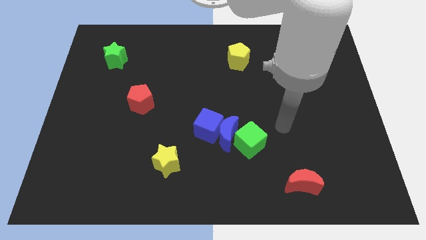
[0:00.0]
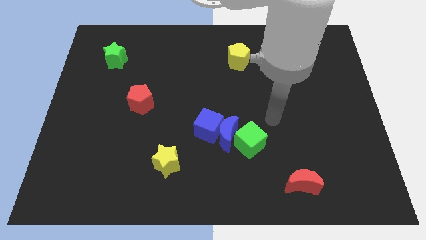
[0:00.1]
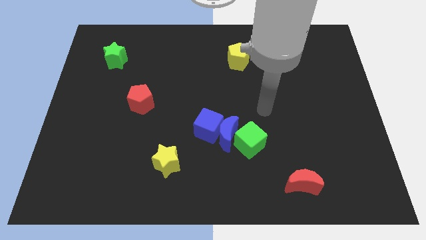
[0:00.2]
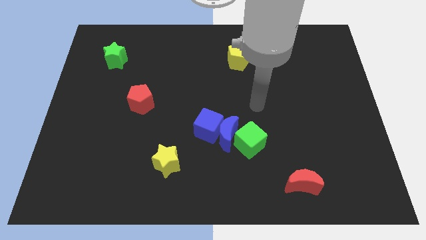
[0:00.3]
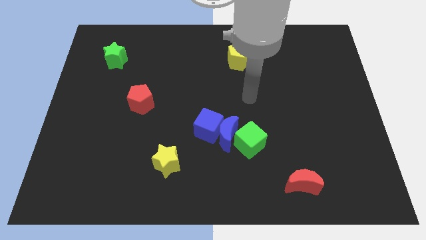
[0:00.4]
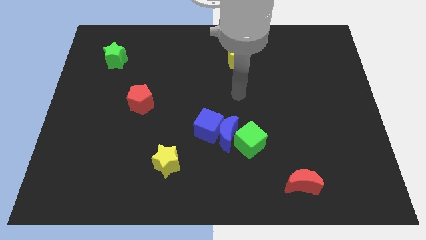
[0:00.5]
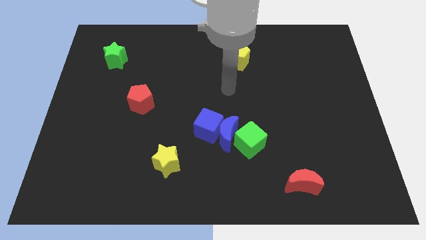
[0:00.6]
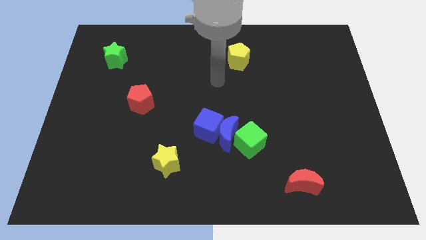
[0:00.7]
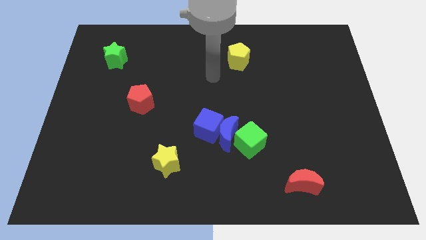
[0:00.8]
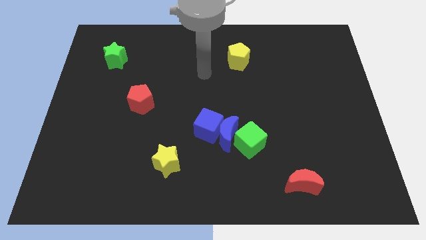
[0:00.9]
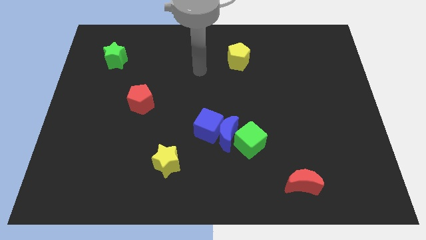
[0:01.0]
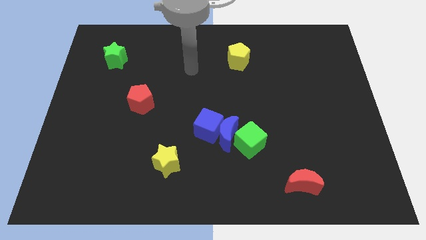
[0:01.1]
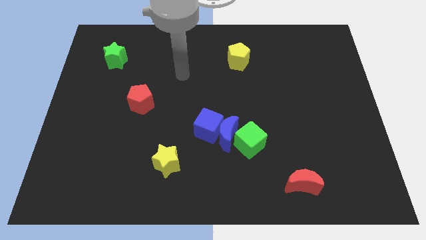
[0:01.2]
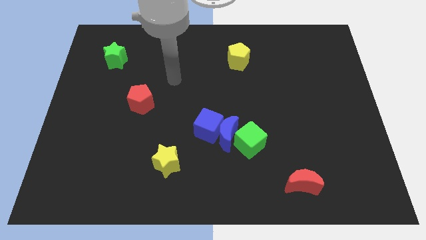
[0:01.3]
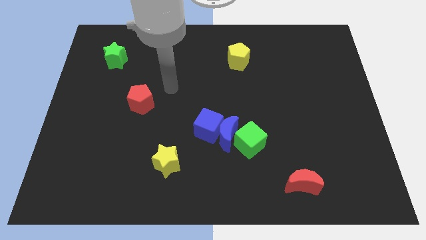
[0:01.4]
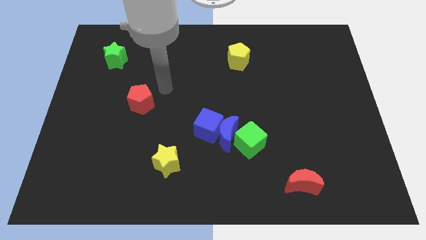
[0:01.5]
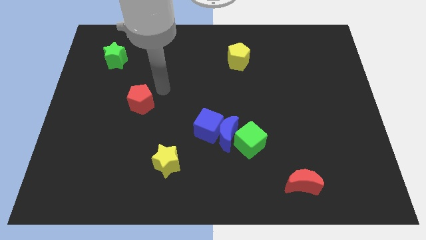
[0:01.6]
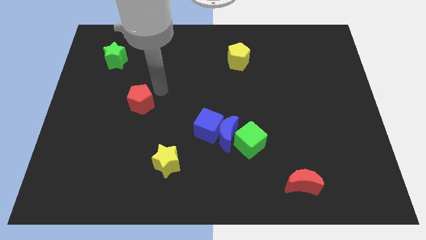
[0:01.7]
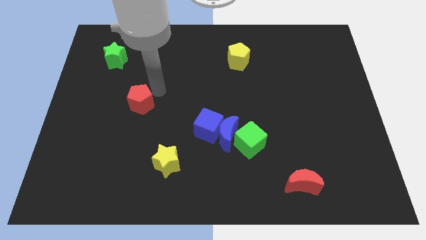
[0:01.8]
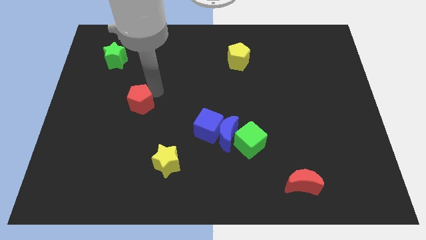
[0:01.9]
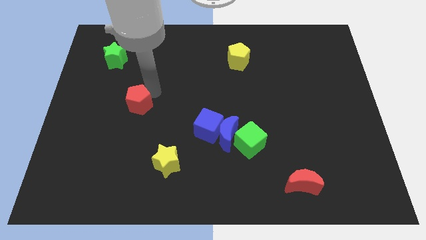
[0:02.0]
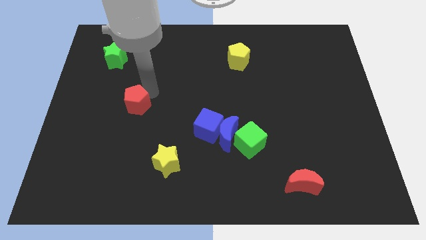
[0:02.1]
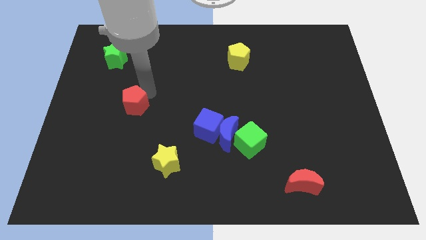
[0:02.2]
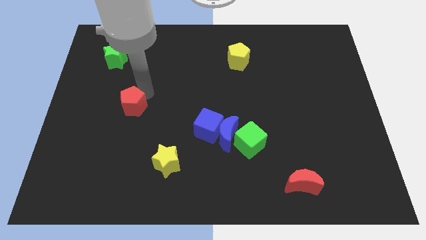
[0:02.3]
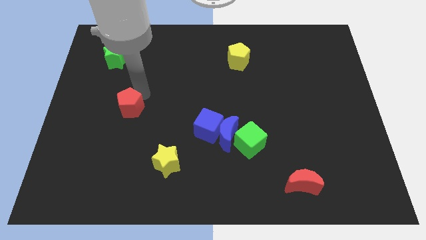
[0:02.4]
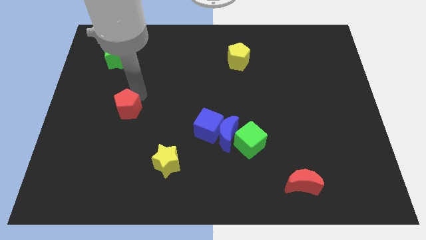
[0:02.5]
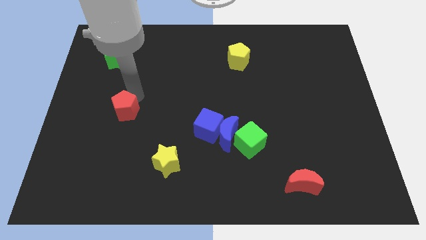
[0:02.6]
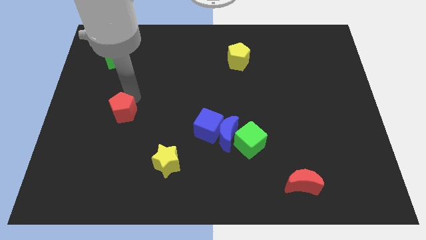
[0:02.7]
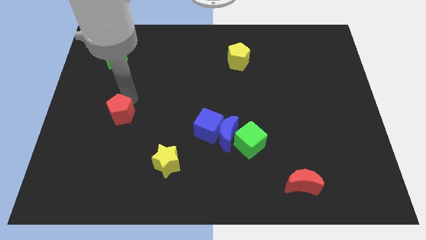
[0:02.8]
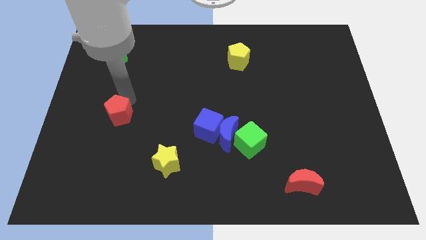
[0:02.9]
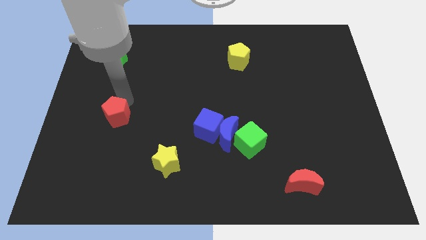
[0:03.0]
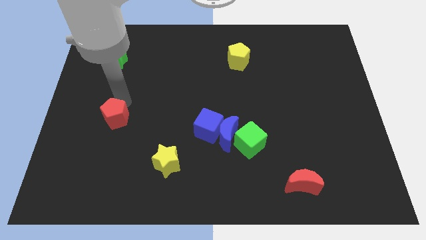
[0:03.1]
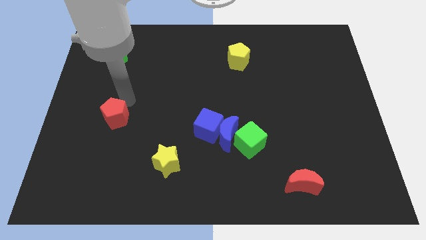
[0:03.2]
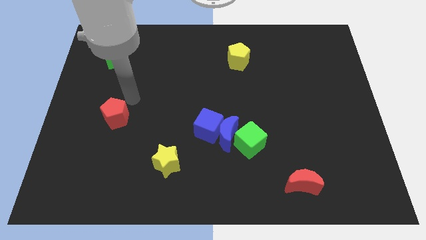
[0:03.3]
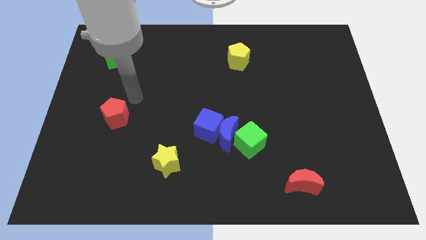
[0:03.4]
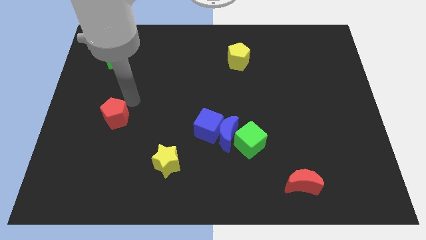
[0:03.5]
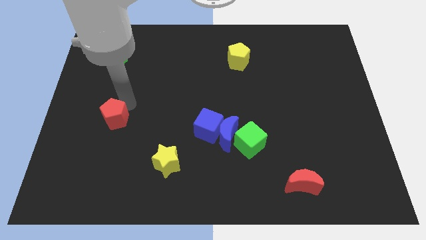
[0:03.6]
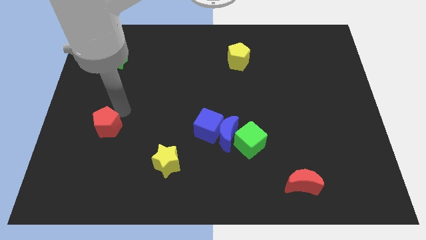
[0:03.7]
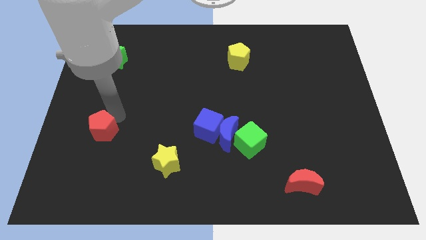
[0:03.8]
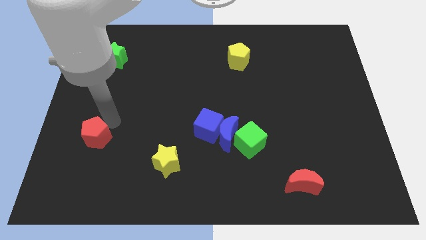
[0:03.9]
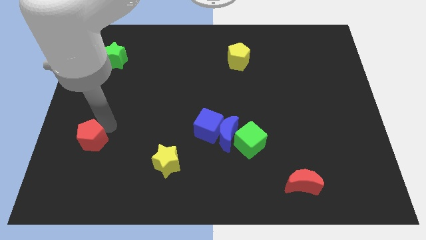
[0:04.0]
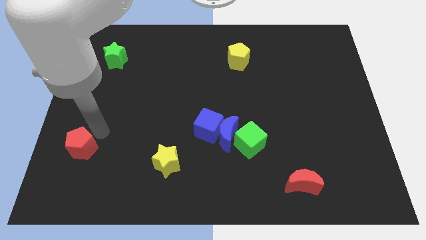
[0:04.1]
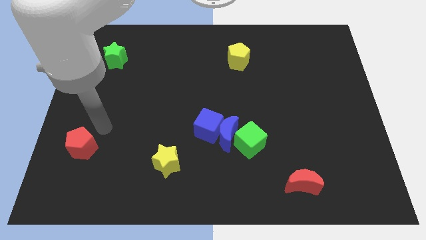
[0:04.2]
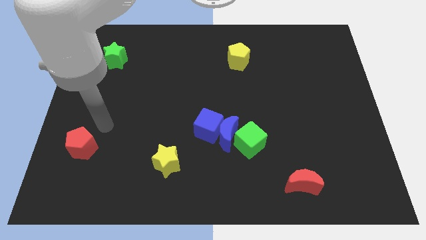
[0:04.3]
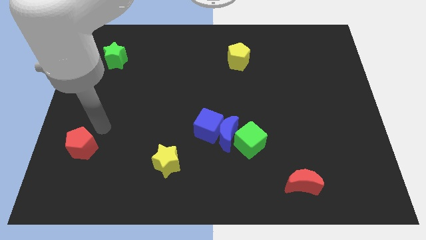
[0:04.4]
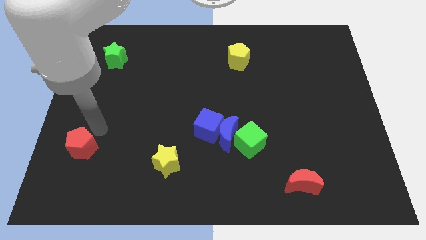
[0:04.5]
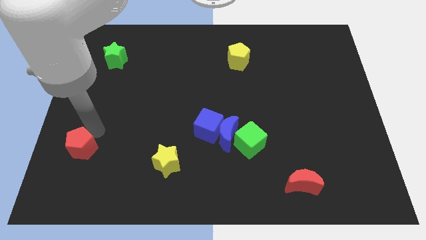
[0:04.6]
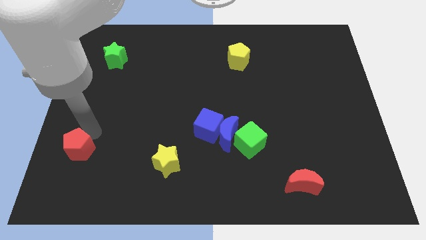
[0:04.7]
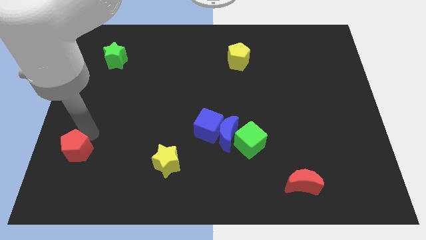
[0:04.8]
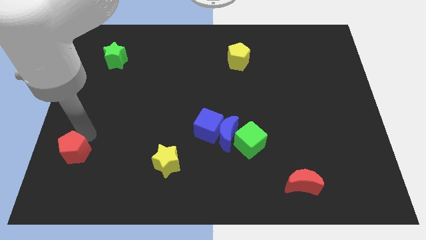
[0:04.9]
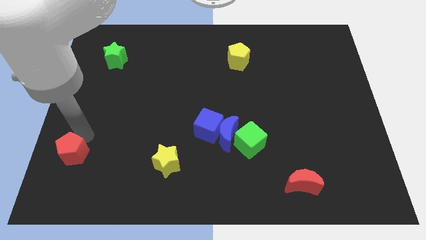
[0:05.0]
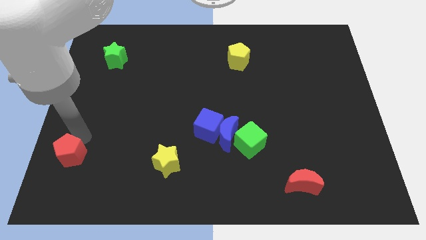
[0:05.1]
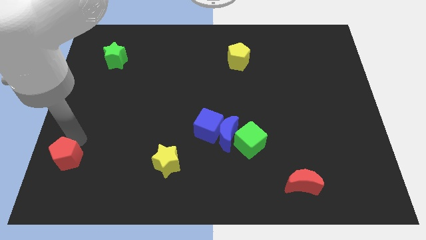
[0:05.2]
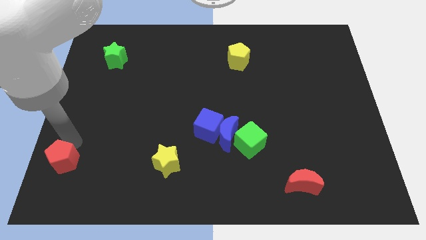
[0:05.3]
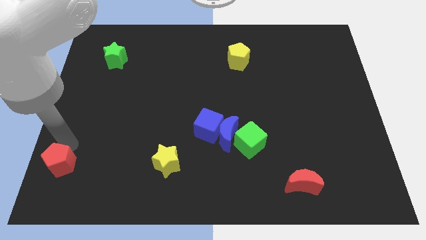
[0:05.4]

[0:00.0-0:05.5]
put the red pentagon to the bottom left corner

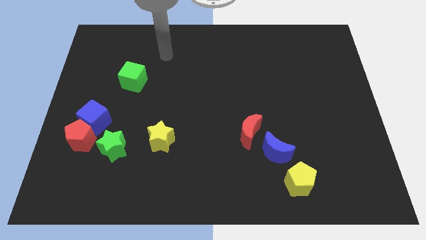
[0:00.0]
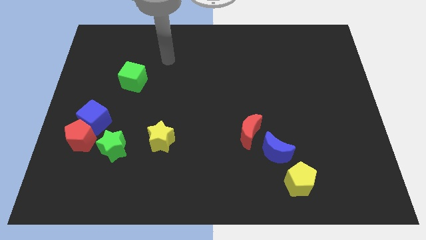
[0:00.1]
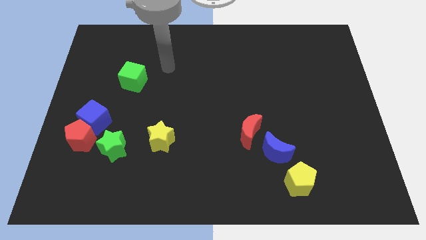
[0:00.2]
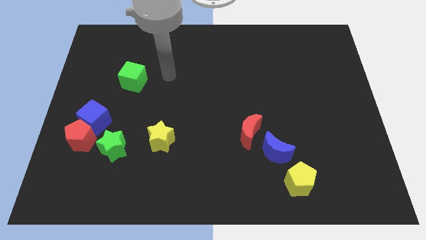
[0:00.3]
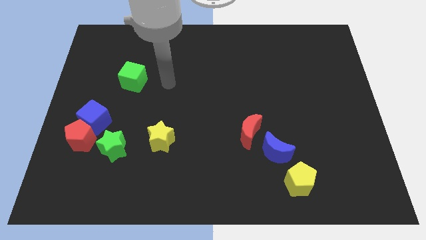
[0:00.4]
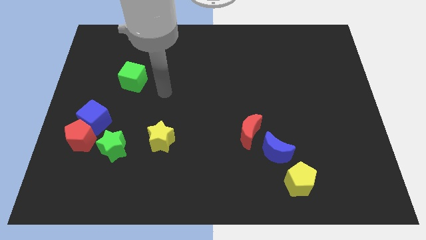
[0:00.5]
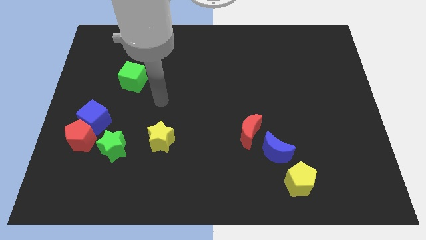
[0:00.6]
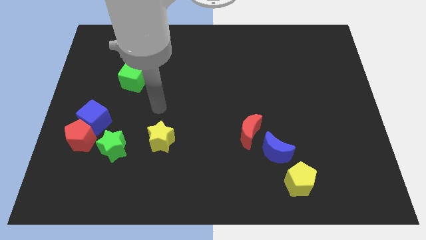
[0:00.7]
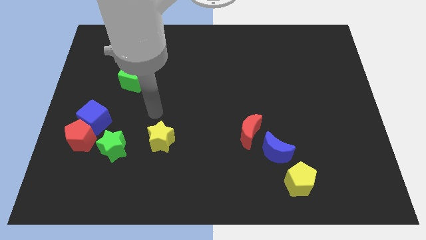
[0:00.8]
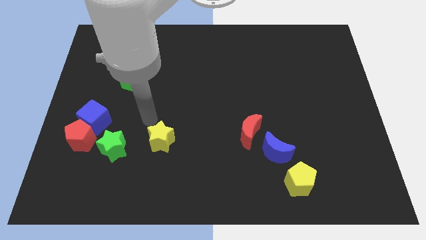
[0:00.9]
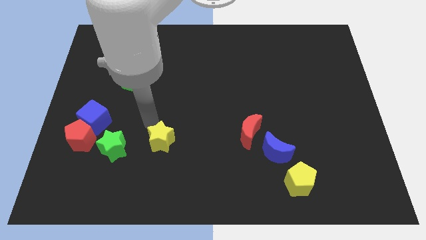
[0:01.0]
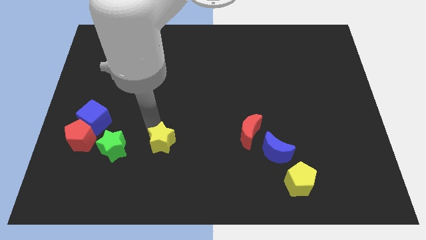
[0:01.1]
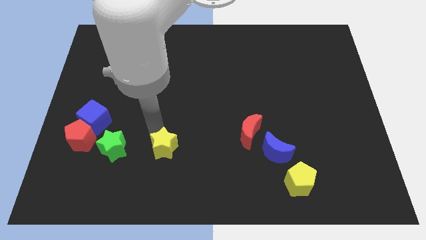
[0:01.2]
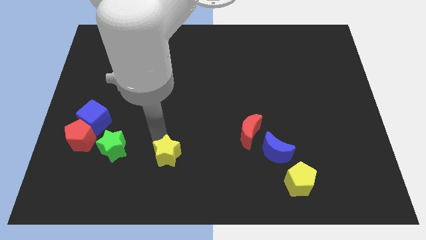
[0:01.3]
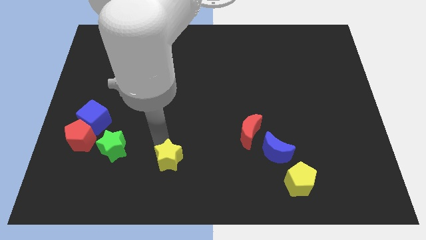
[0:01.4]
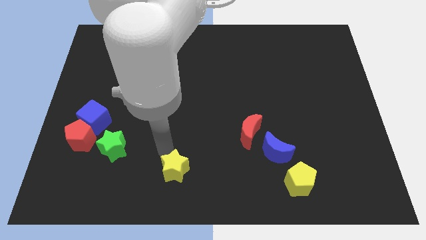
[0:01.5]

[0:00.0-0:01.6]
move the yellow star to the bottom
